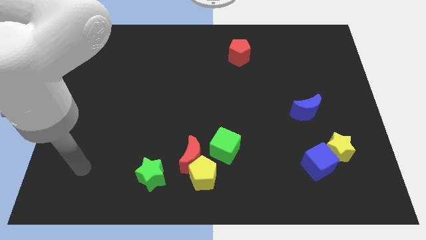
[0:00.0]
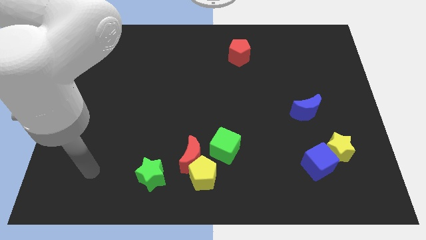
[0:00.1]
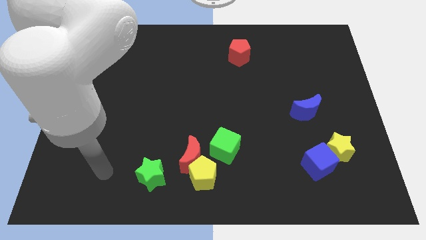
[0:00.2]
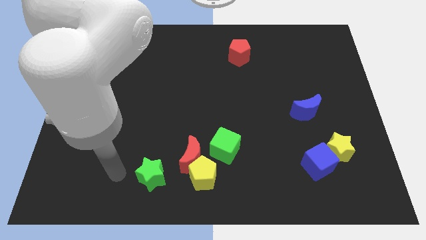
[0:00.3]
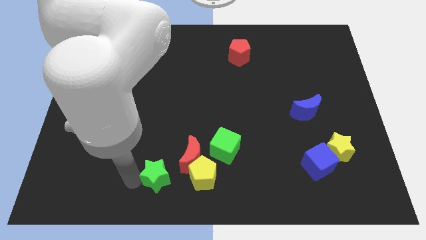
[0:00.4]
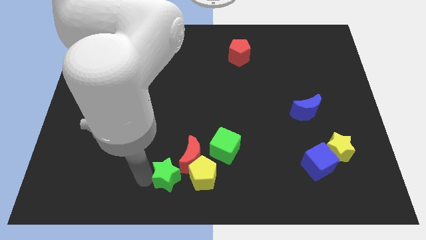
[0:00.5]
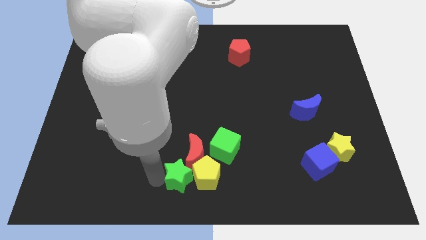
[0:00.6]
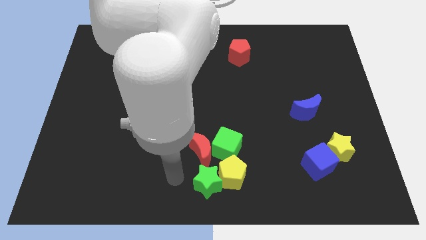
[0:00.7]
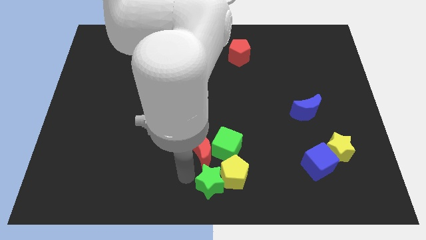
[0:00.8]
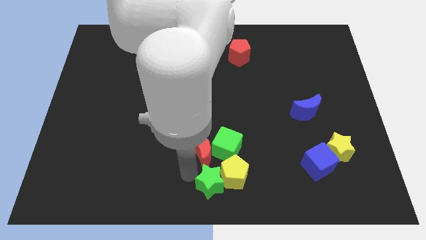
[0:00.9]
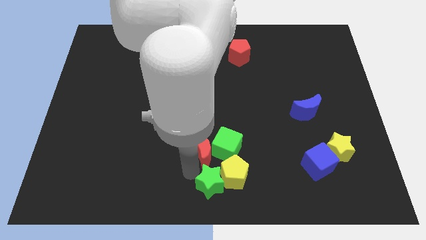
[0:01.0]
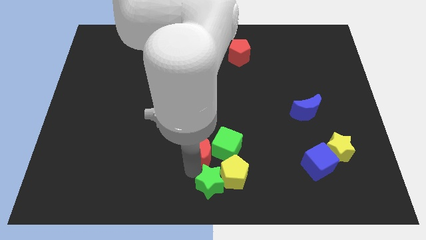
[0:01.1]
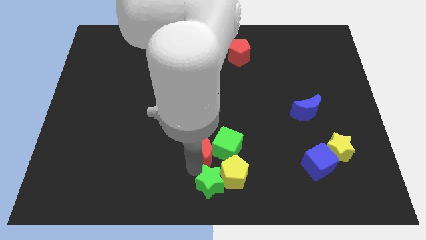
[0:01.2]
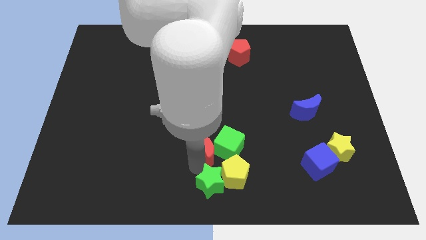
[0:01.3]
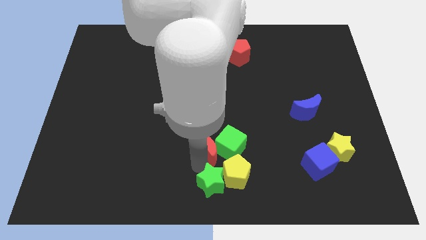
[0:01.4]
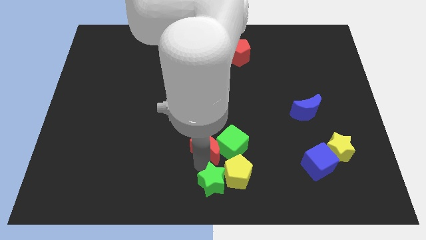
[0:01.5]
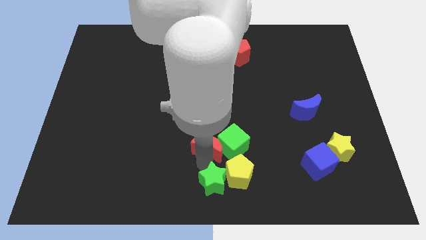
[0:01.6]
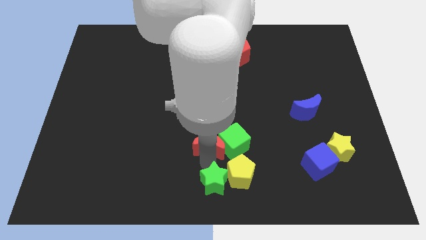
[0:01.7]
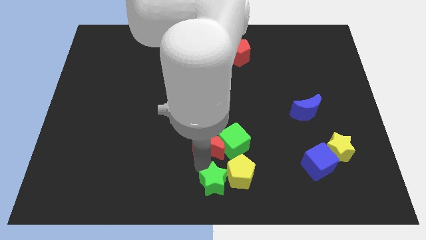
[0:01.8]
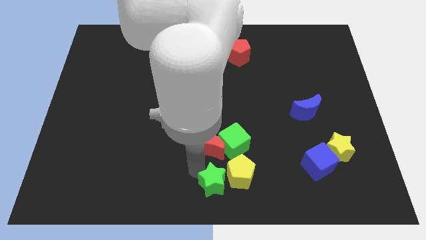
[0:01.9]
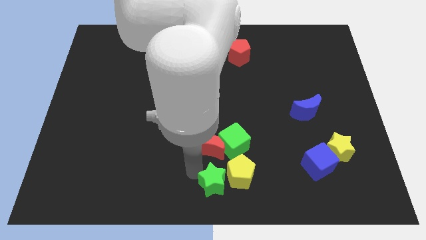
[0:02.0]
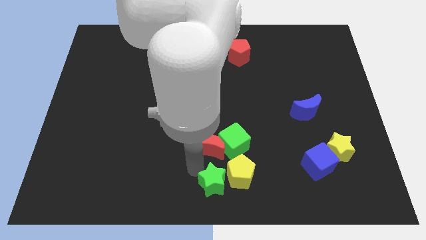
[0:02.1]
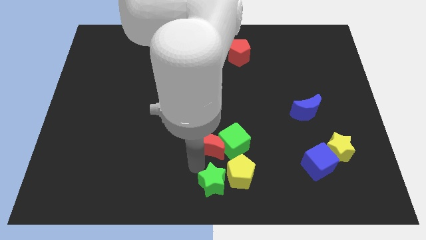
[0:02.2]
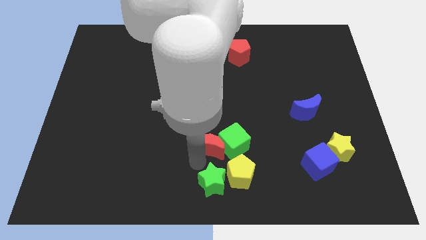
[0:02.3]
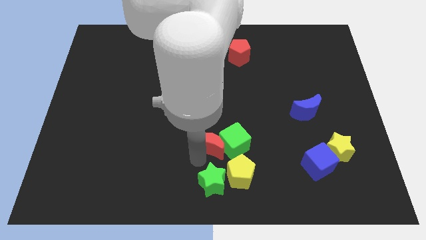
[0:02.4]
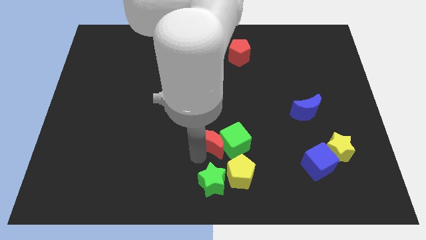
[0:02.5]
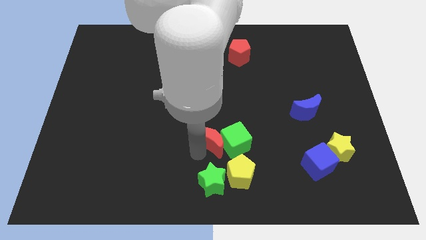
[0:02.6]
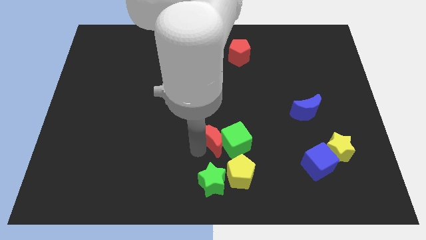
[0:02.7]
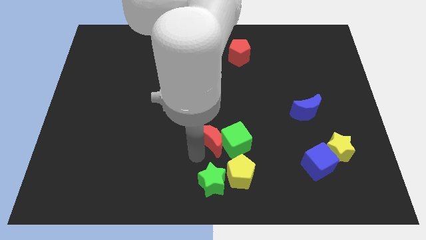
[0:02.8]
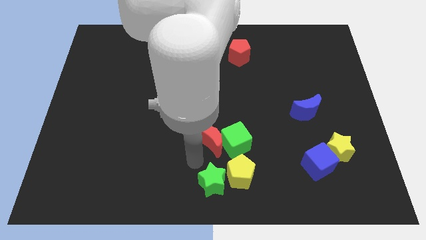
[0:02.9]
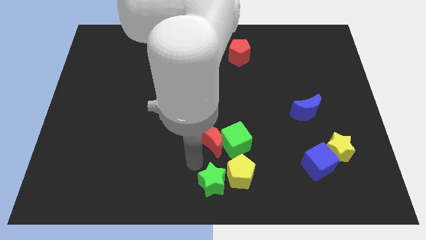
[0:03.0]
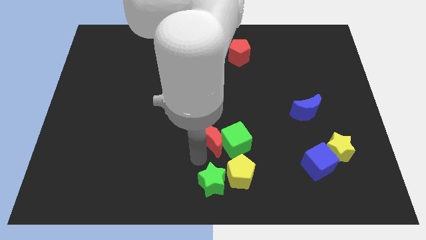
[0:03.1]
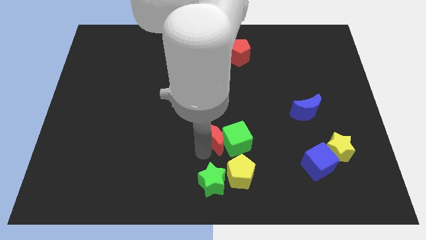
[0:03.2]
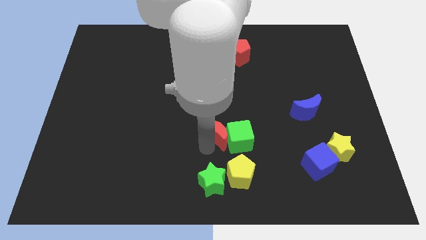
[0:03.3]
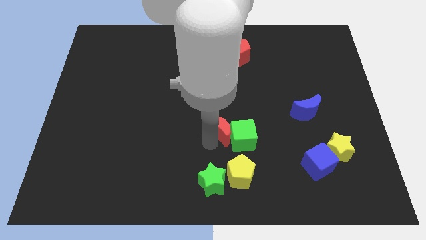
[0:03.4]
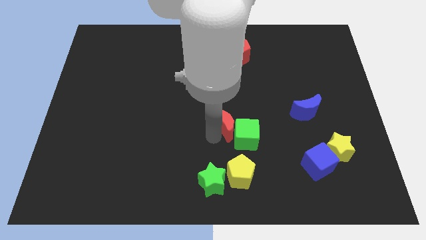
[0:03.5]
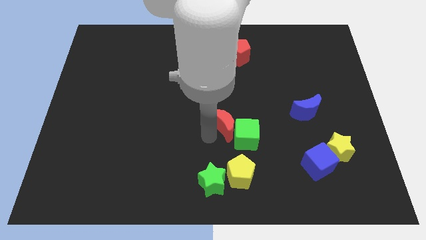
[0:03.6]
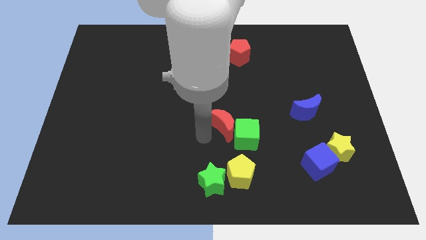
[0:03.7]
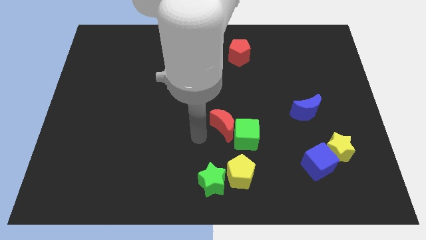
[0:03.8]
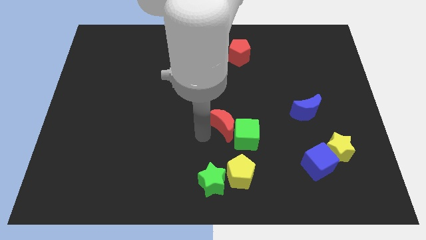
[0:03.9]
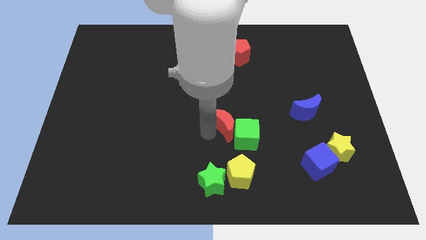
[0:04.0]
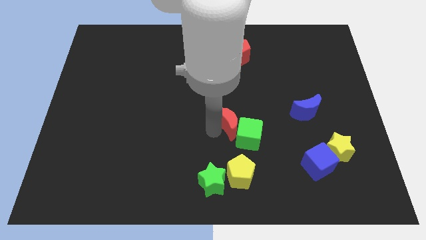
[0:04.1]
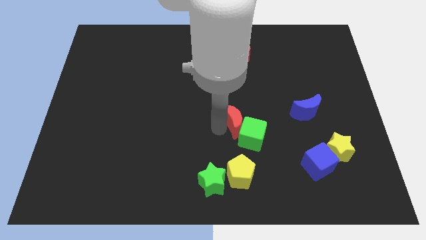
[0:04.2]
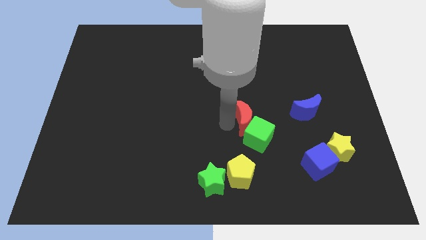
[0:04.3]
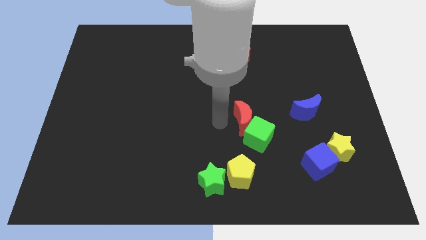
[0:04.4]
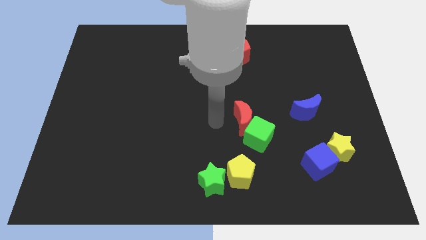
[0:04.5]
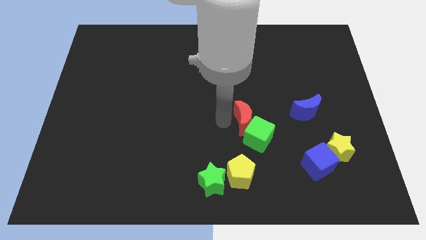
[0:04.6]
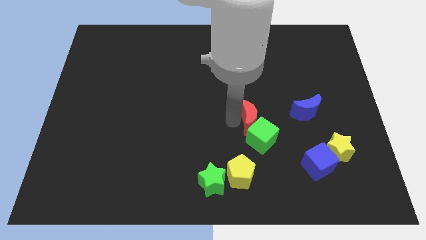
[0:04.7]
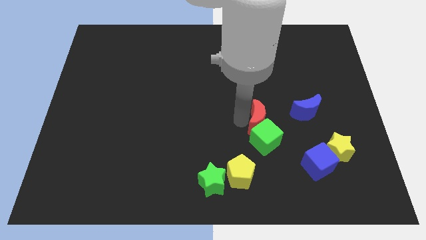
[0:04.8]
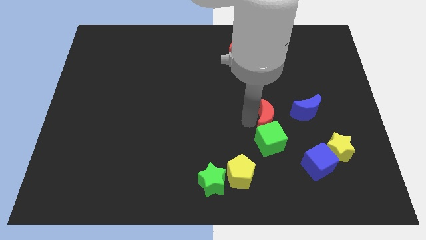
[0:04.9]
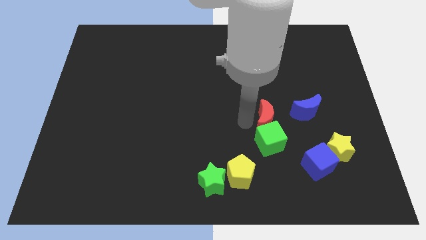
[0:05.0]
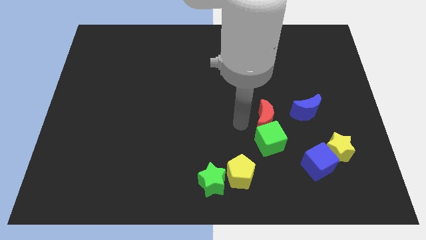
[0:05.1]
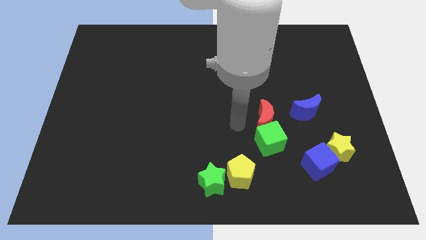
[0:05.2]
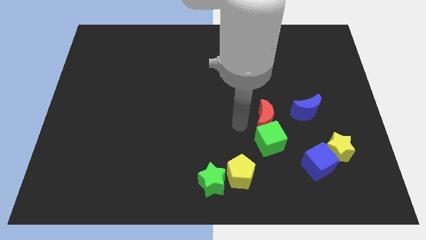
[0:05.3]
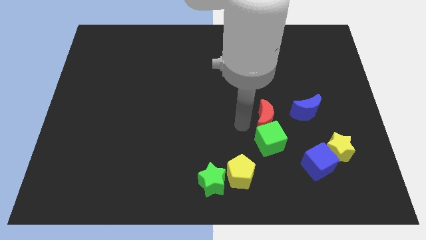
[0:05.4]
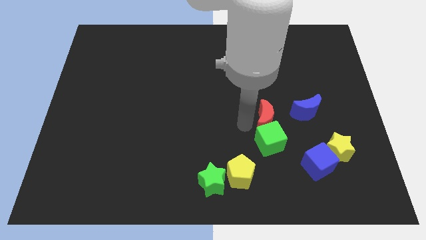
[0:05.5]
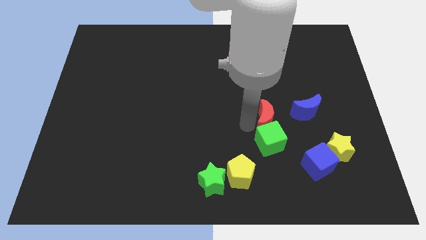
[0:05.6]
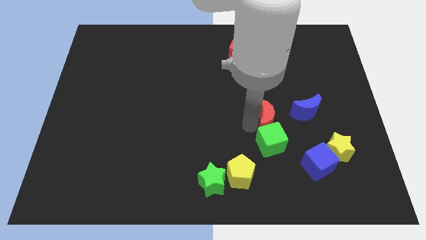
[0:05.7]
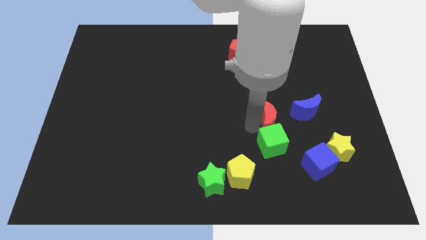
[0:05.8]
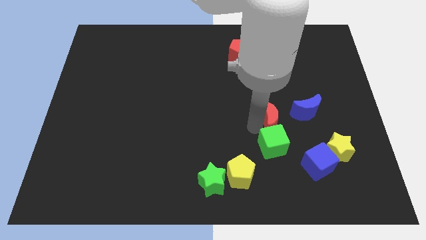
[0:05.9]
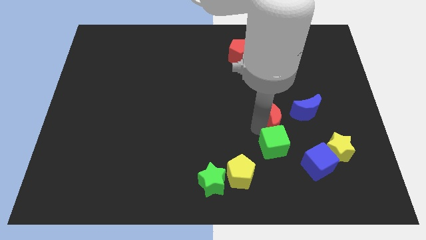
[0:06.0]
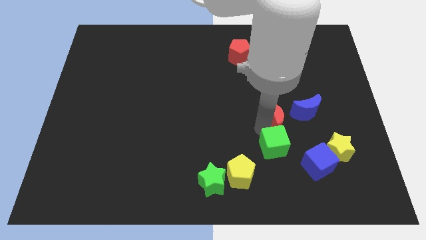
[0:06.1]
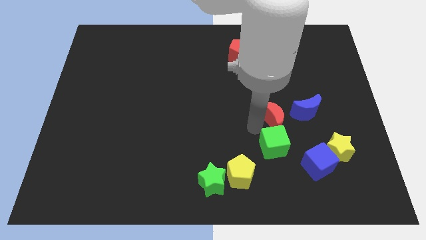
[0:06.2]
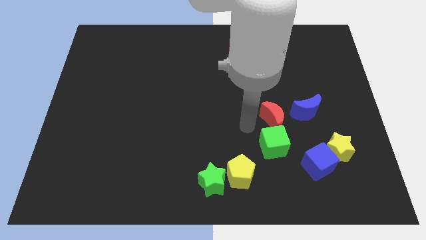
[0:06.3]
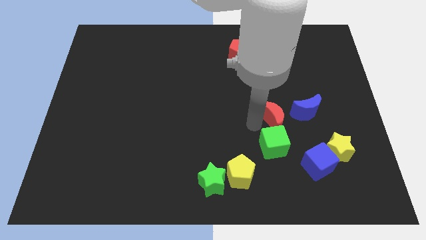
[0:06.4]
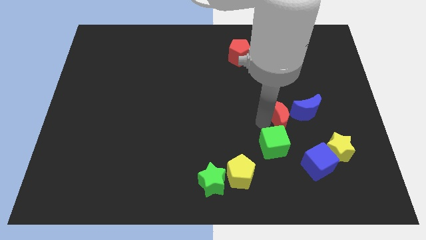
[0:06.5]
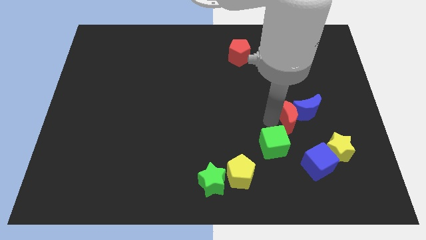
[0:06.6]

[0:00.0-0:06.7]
slide the red moon towards the blue moon

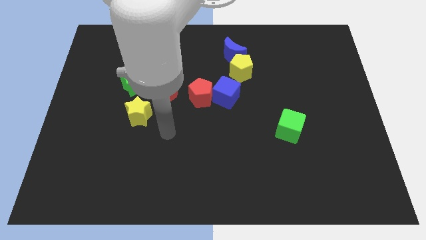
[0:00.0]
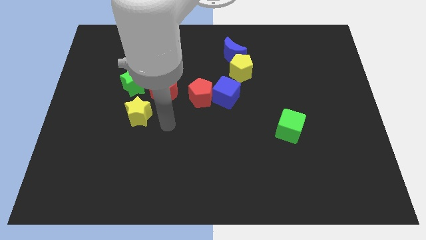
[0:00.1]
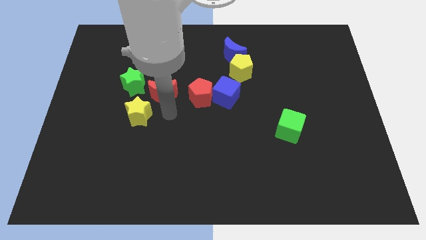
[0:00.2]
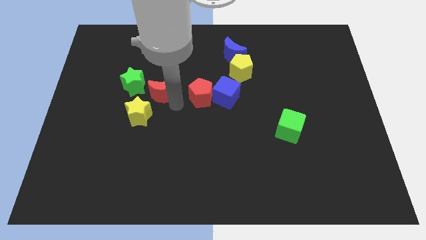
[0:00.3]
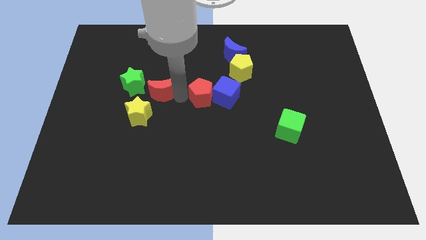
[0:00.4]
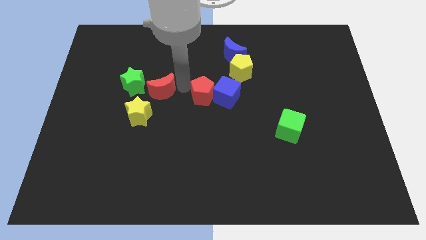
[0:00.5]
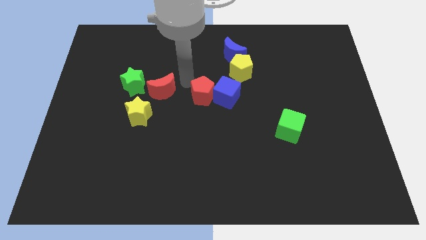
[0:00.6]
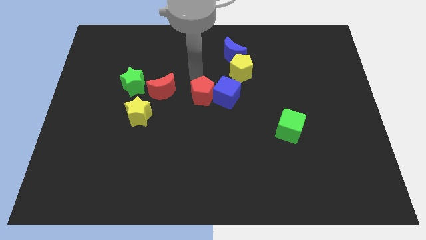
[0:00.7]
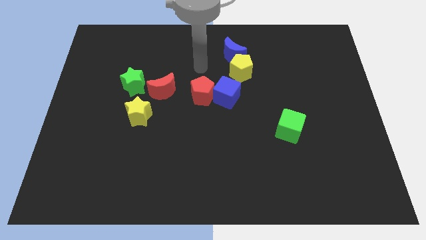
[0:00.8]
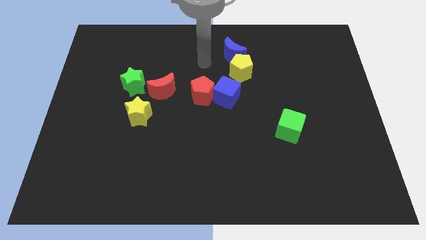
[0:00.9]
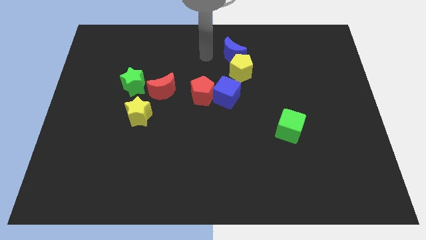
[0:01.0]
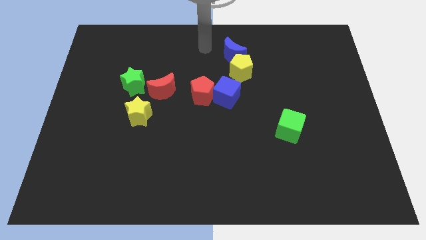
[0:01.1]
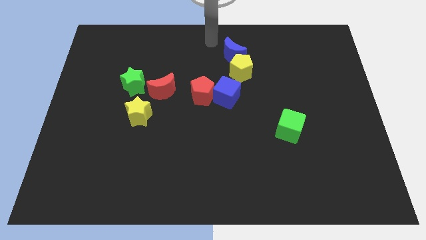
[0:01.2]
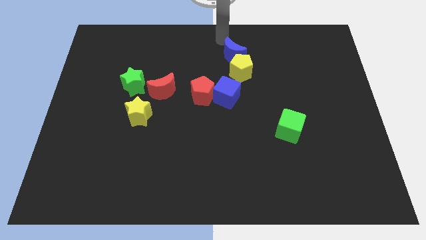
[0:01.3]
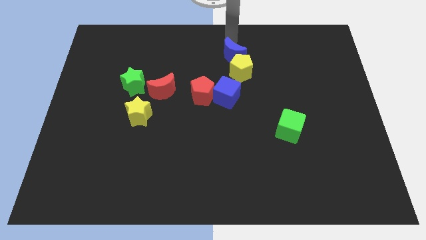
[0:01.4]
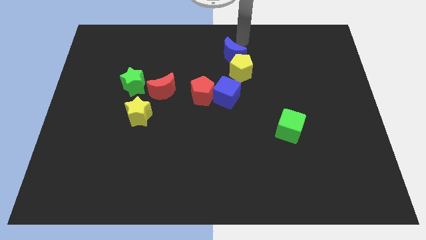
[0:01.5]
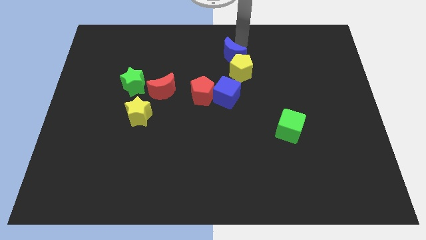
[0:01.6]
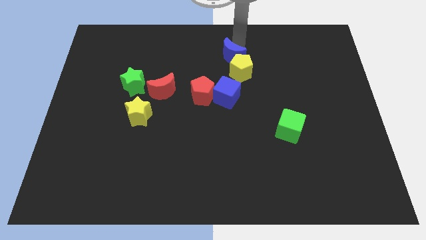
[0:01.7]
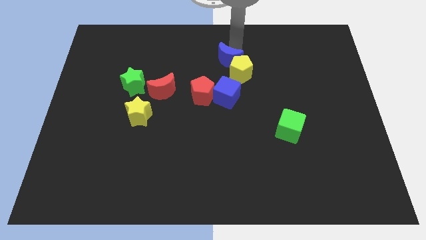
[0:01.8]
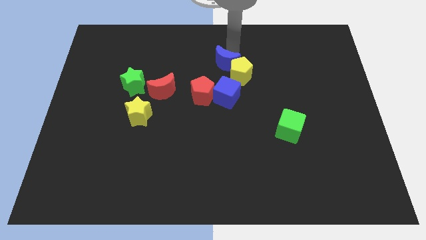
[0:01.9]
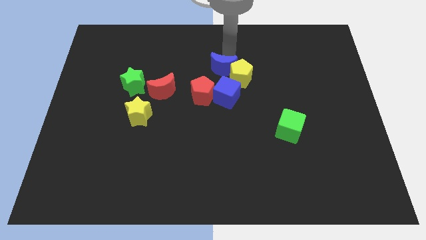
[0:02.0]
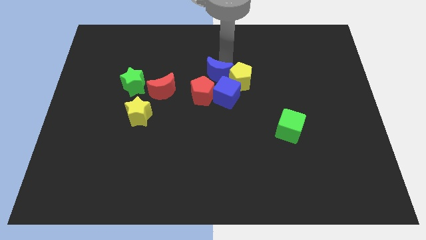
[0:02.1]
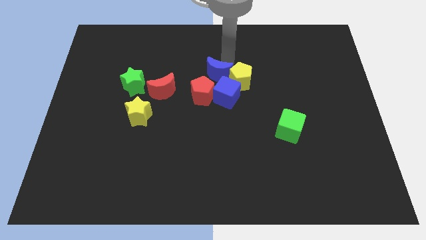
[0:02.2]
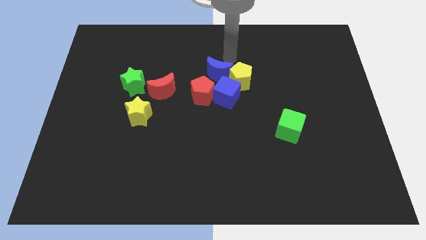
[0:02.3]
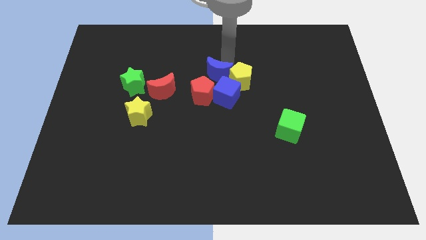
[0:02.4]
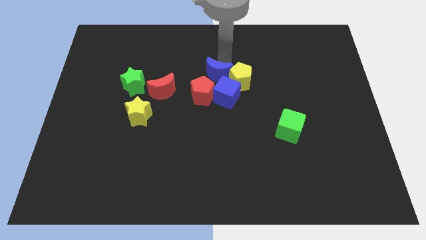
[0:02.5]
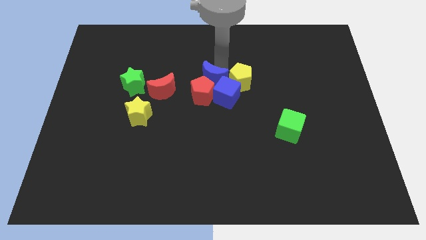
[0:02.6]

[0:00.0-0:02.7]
slide the blue moon towards the red pentagon
